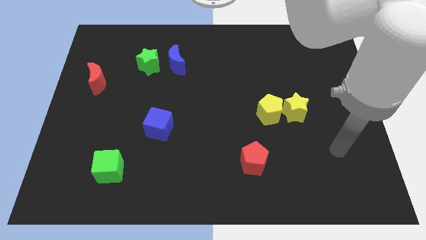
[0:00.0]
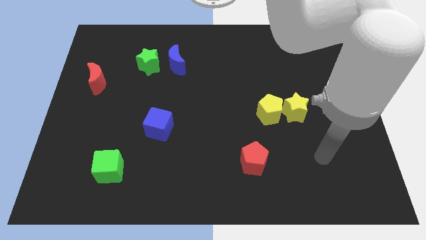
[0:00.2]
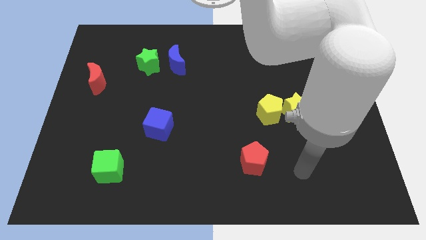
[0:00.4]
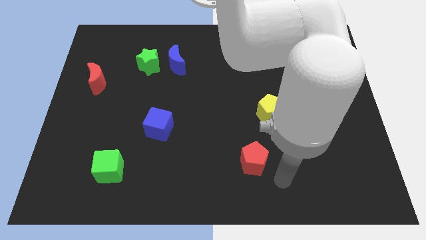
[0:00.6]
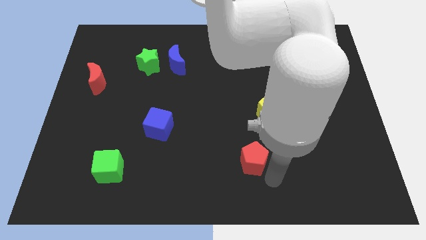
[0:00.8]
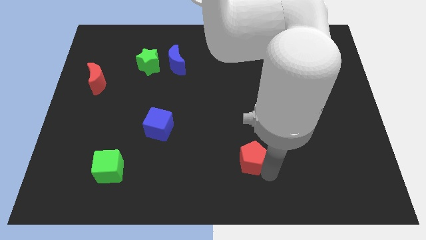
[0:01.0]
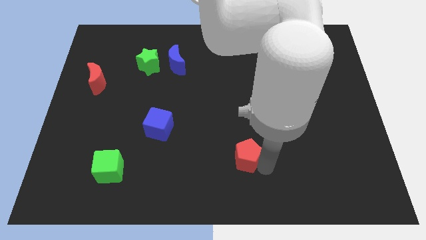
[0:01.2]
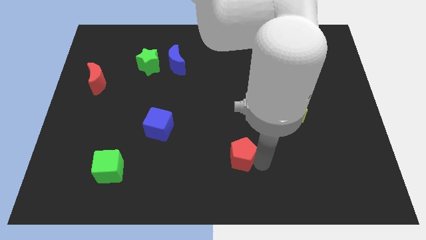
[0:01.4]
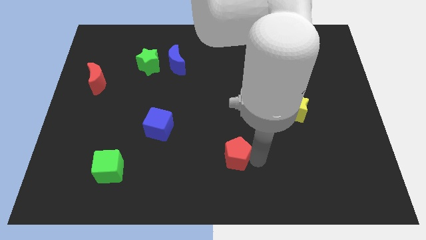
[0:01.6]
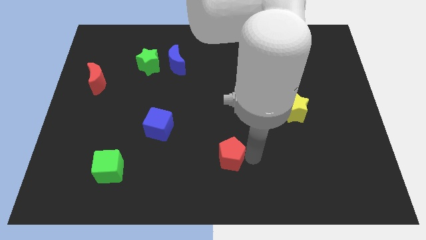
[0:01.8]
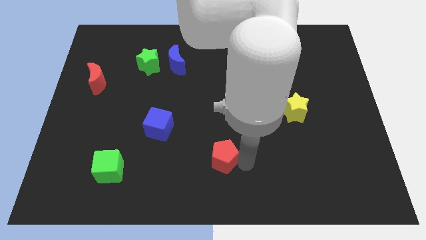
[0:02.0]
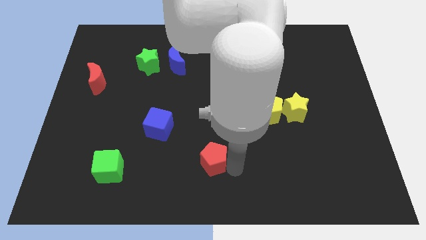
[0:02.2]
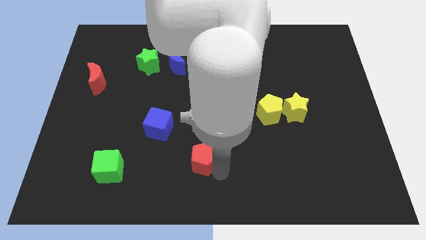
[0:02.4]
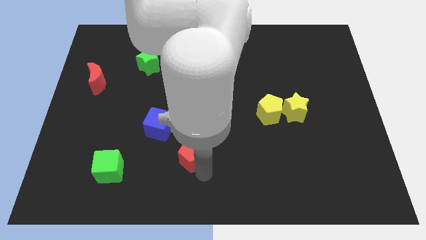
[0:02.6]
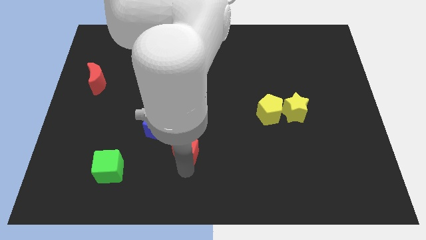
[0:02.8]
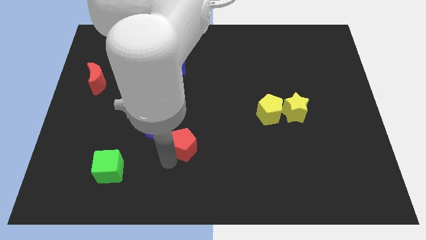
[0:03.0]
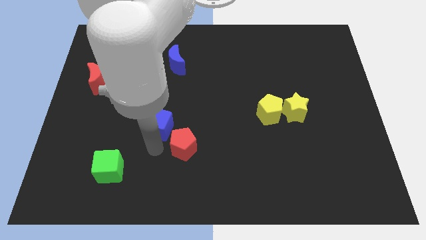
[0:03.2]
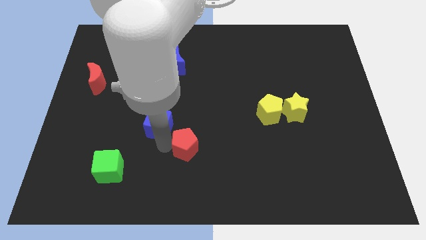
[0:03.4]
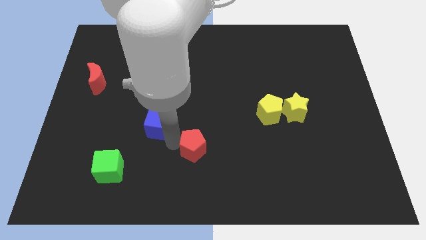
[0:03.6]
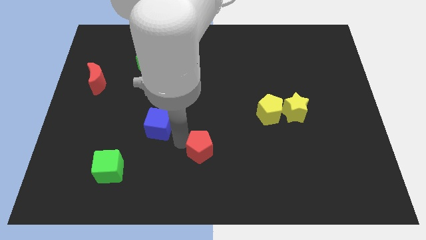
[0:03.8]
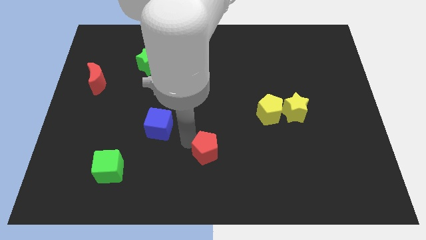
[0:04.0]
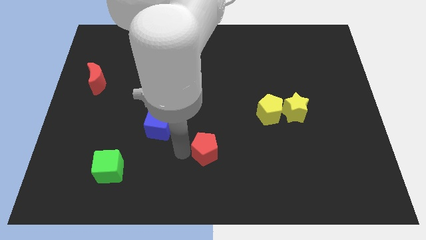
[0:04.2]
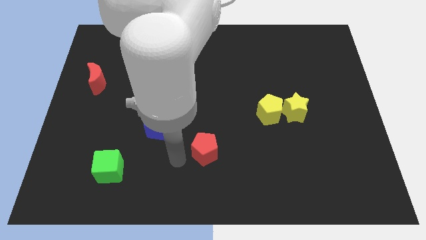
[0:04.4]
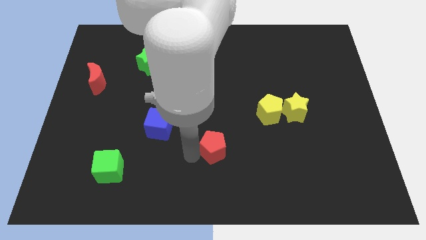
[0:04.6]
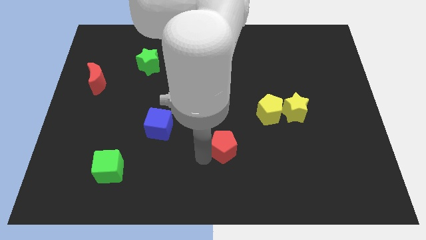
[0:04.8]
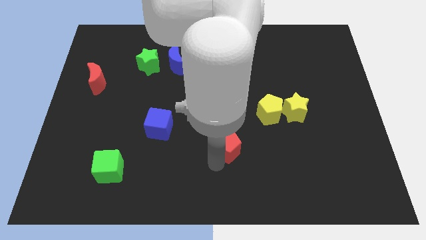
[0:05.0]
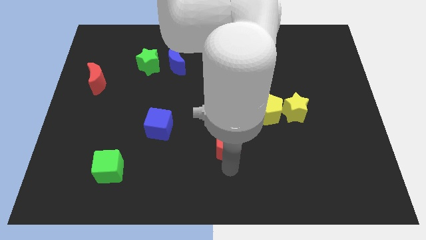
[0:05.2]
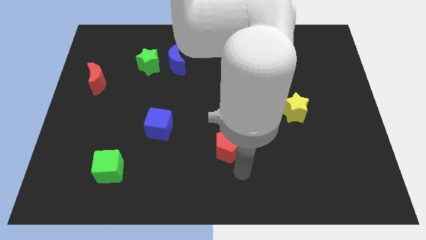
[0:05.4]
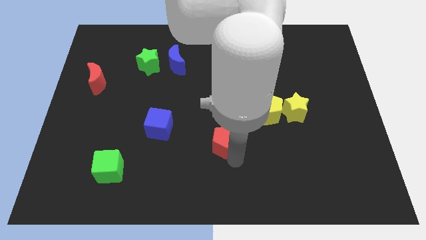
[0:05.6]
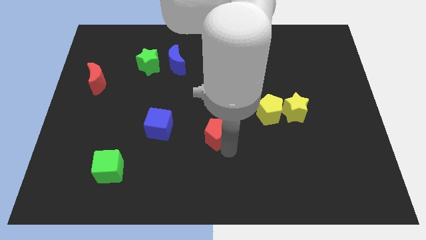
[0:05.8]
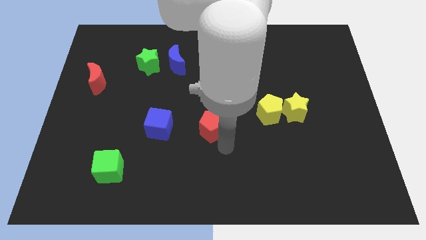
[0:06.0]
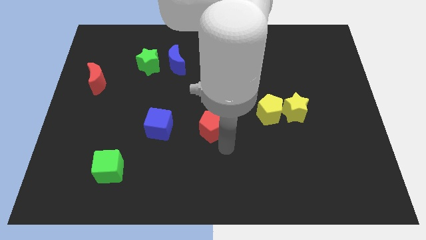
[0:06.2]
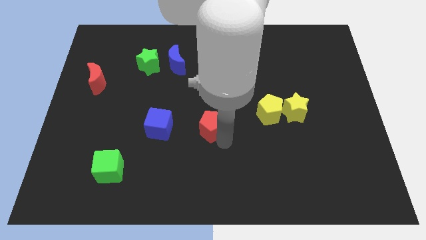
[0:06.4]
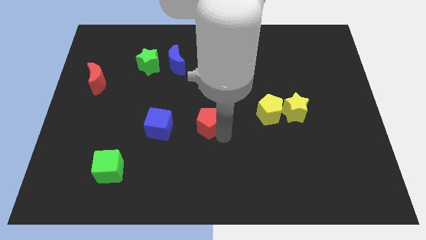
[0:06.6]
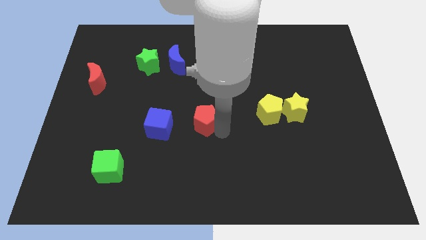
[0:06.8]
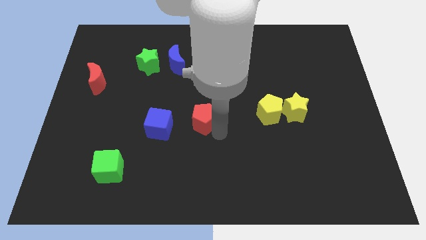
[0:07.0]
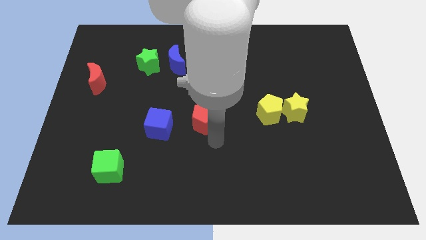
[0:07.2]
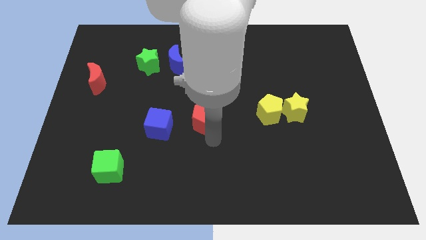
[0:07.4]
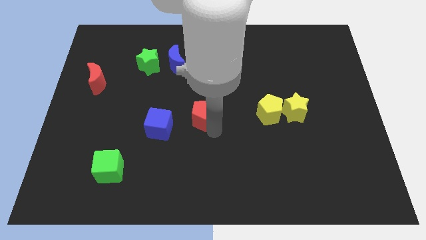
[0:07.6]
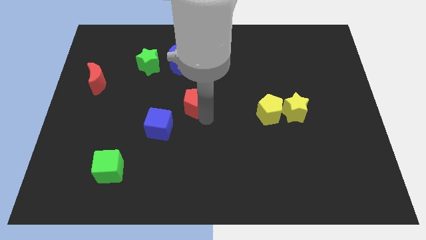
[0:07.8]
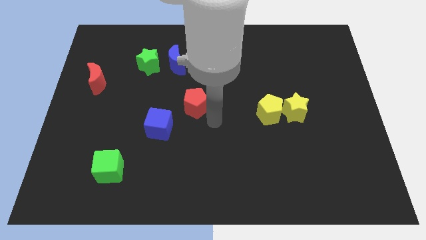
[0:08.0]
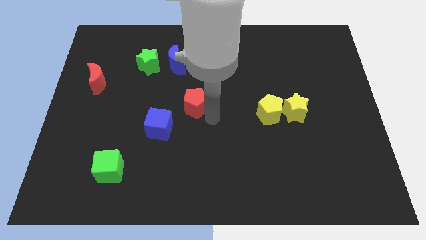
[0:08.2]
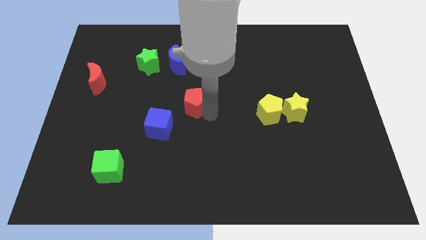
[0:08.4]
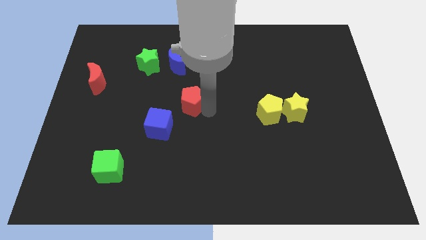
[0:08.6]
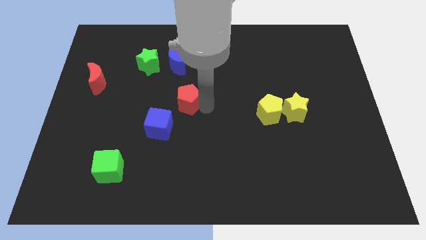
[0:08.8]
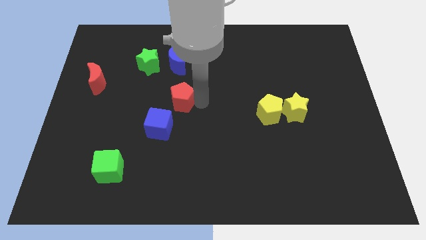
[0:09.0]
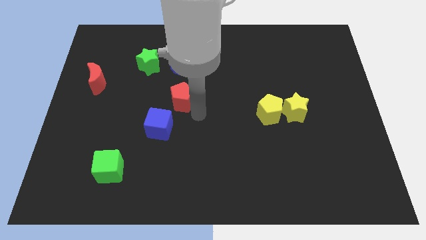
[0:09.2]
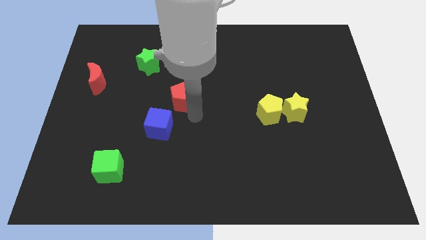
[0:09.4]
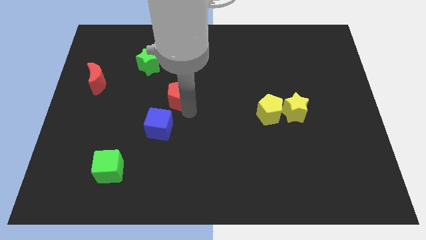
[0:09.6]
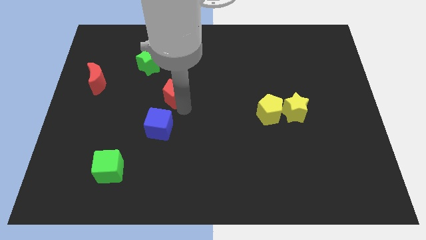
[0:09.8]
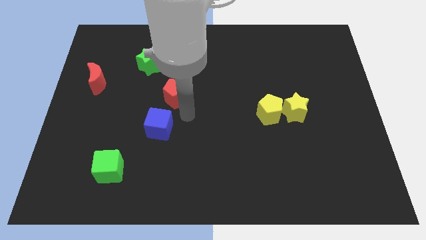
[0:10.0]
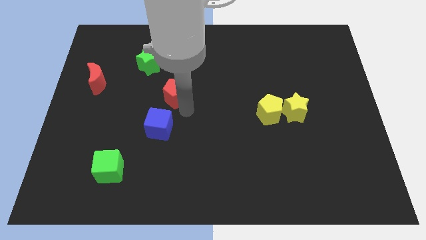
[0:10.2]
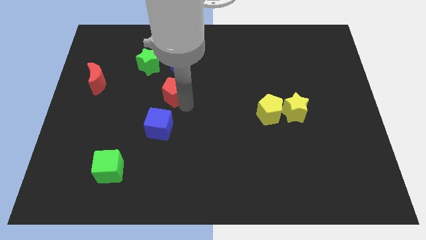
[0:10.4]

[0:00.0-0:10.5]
put the red pentagon to the bottom right of the green star

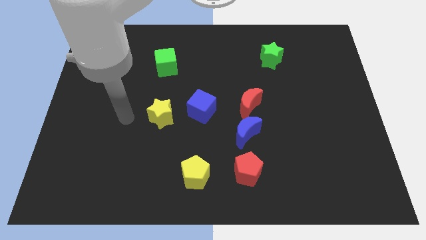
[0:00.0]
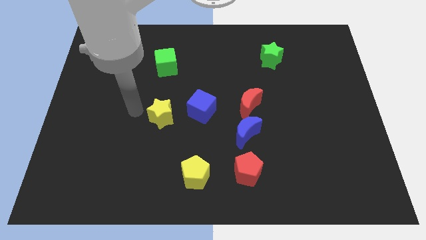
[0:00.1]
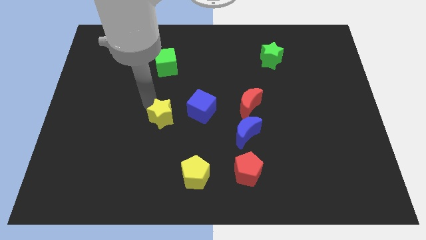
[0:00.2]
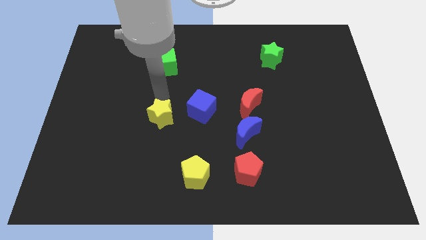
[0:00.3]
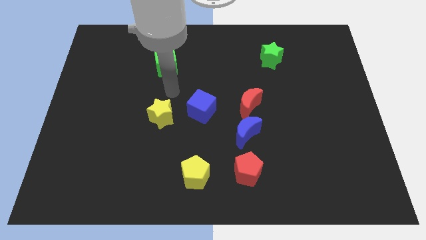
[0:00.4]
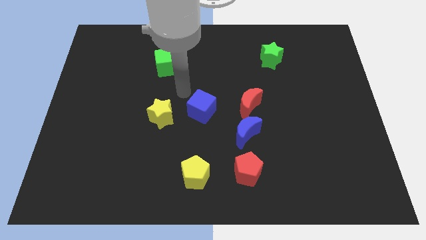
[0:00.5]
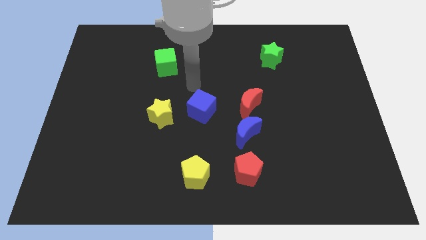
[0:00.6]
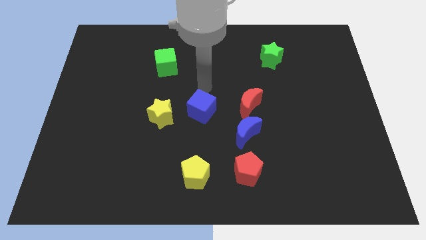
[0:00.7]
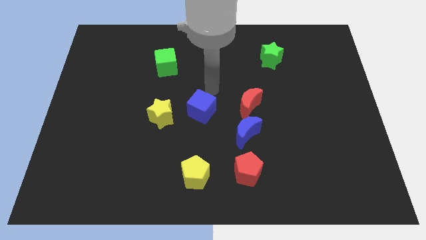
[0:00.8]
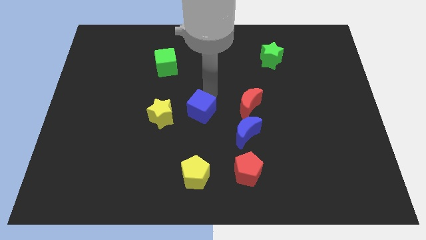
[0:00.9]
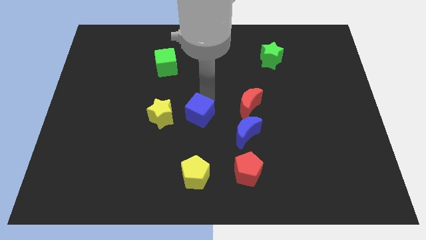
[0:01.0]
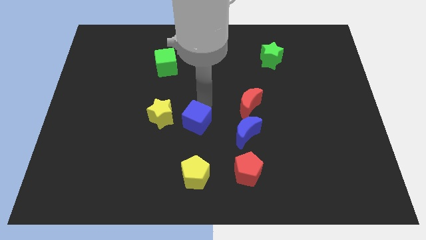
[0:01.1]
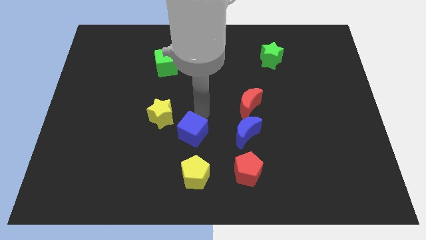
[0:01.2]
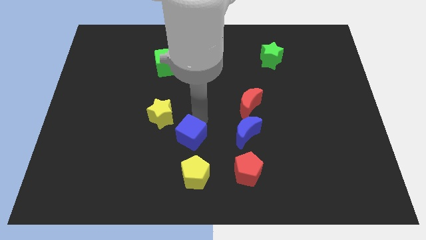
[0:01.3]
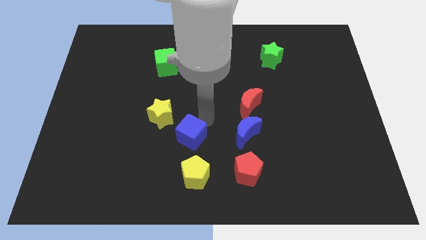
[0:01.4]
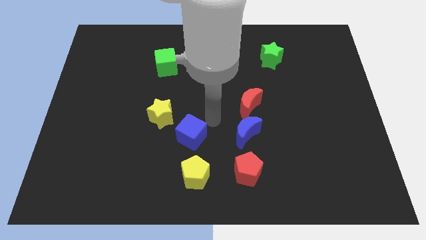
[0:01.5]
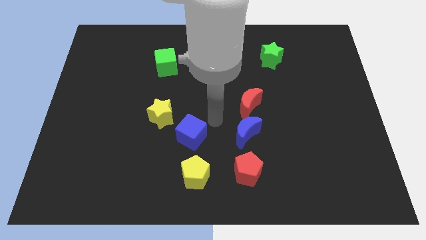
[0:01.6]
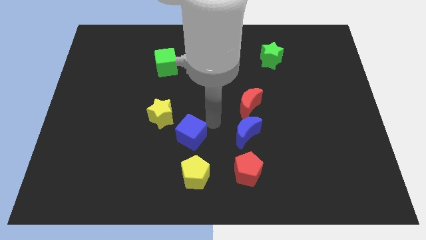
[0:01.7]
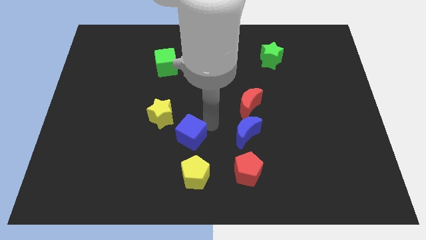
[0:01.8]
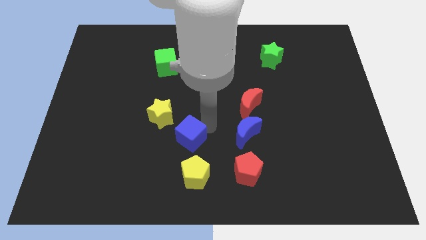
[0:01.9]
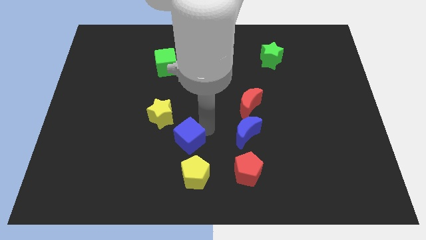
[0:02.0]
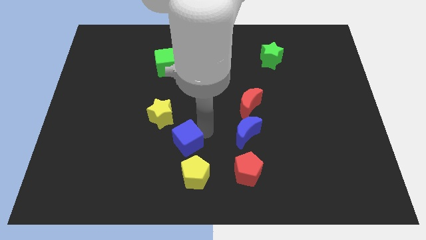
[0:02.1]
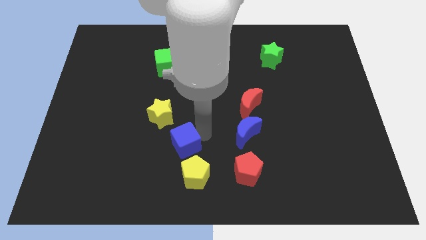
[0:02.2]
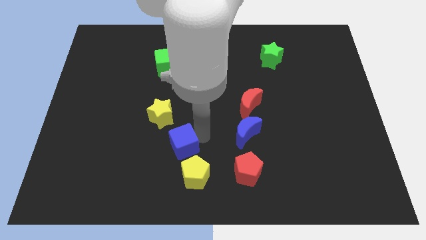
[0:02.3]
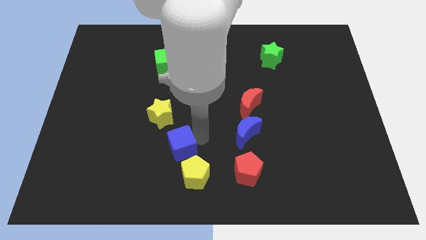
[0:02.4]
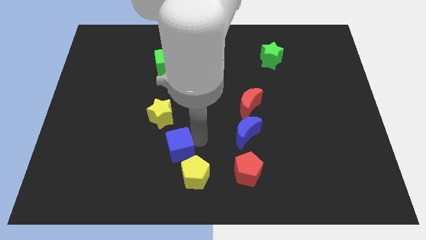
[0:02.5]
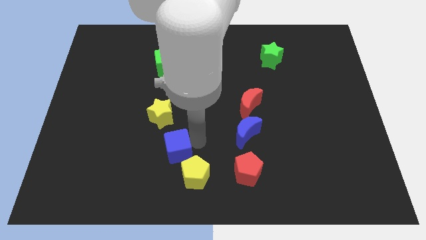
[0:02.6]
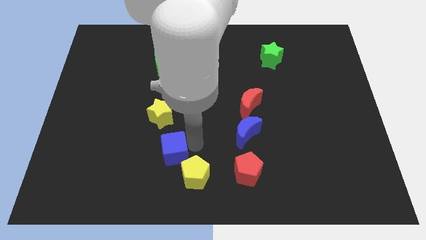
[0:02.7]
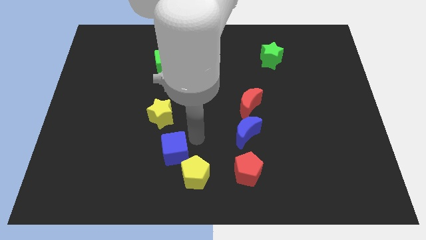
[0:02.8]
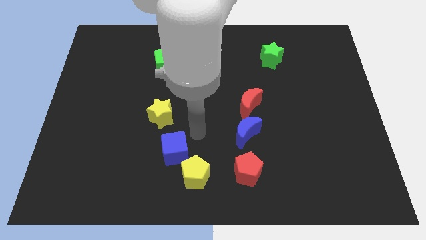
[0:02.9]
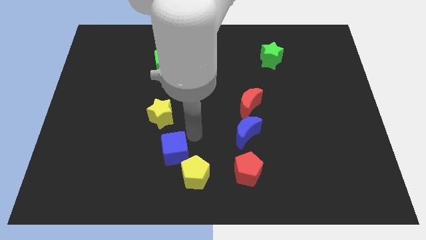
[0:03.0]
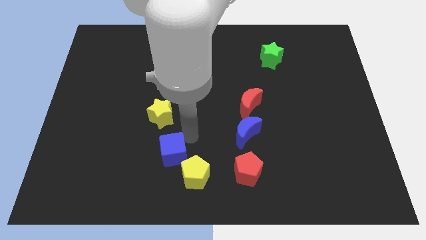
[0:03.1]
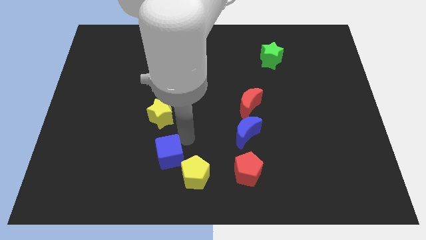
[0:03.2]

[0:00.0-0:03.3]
push the blue cube left of the yellow pentagon
